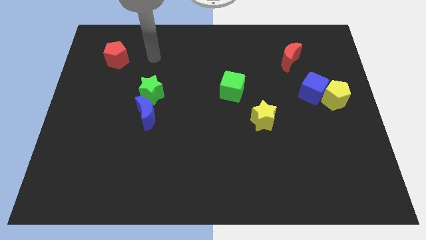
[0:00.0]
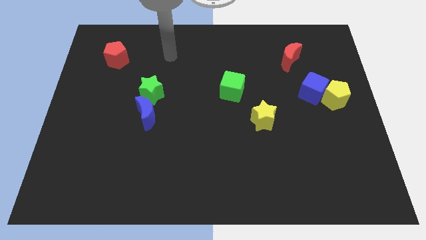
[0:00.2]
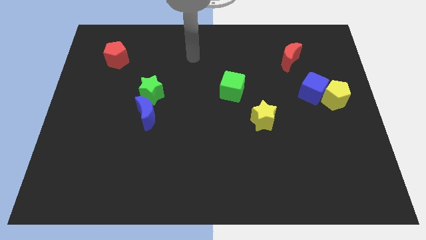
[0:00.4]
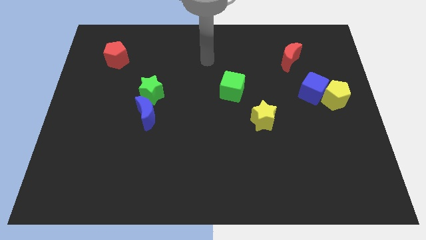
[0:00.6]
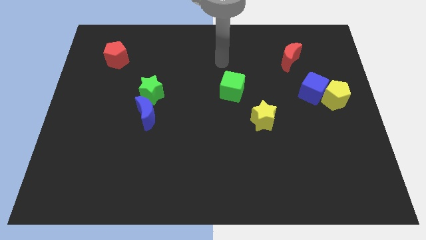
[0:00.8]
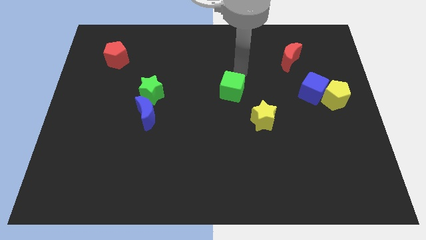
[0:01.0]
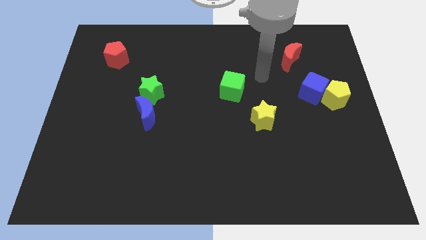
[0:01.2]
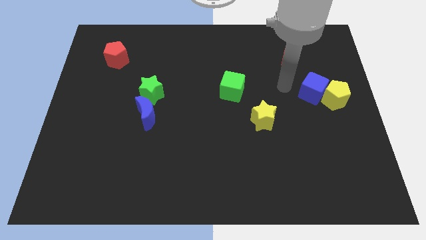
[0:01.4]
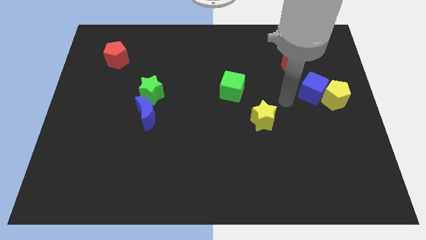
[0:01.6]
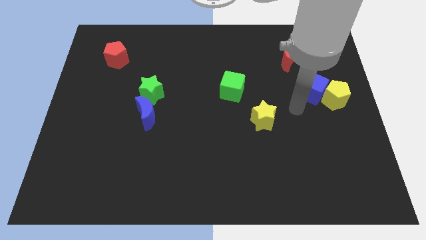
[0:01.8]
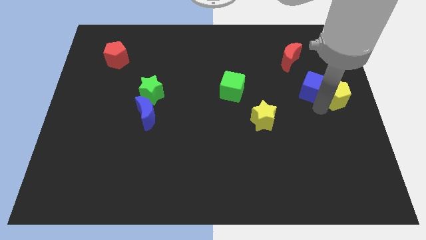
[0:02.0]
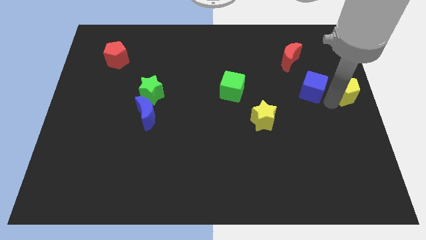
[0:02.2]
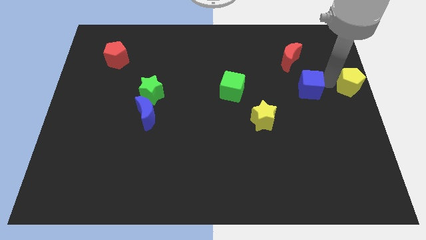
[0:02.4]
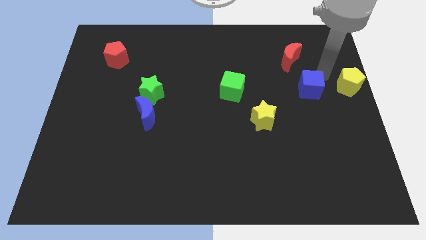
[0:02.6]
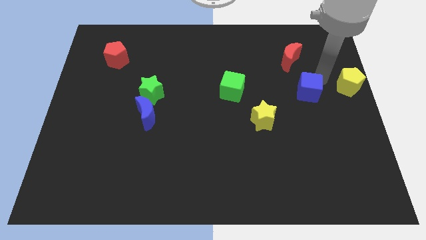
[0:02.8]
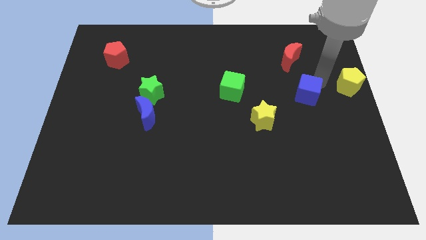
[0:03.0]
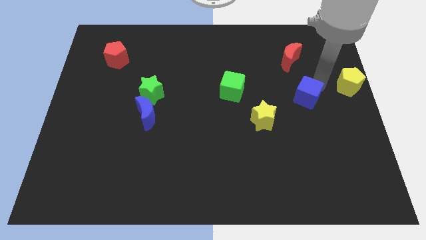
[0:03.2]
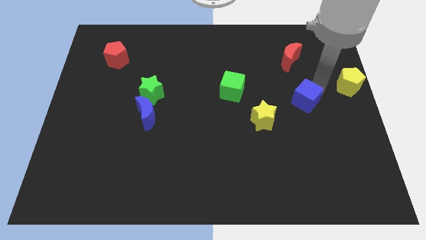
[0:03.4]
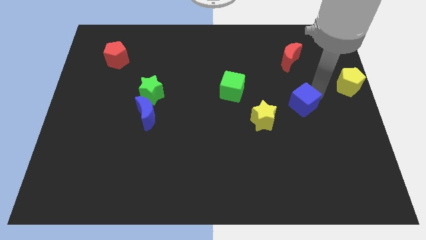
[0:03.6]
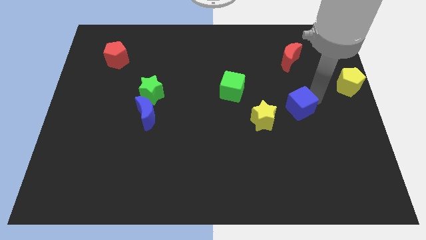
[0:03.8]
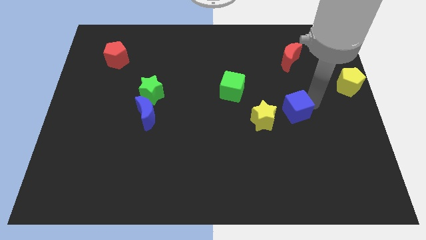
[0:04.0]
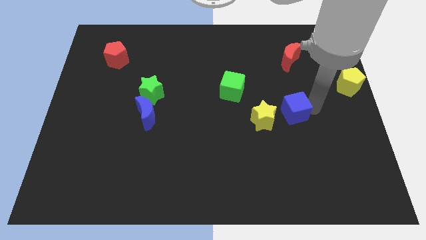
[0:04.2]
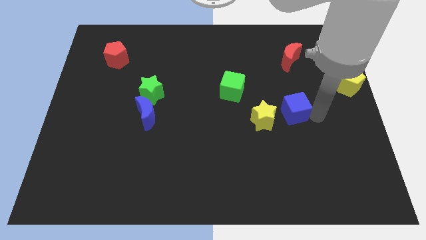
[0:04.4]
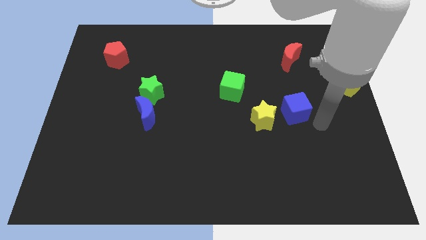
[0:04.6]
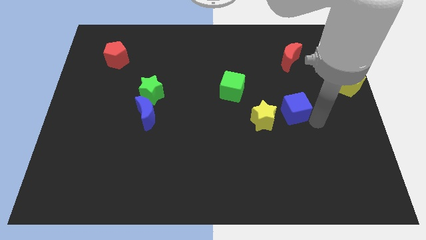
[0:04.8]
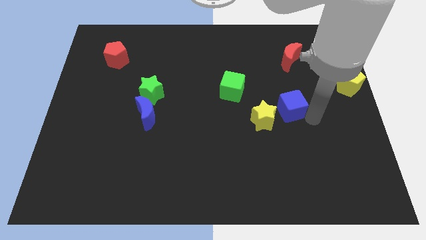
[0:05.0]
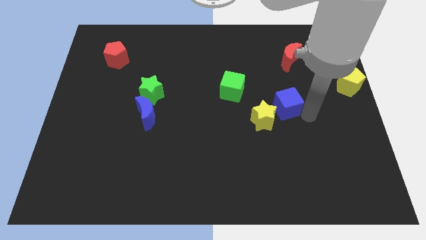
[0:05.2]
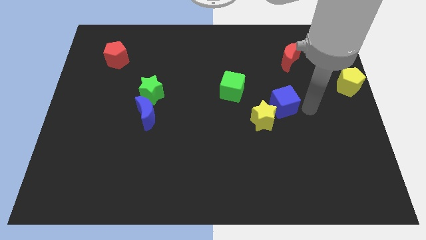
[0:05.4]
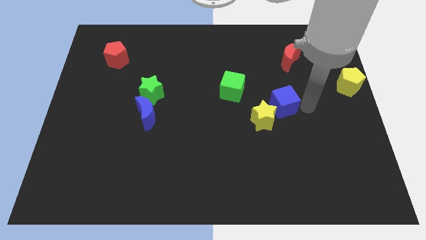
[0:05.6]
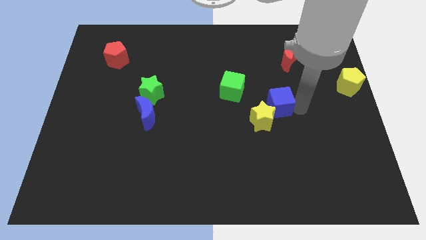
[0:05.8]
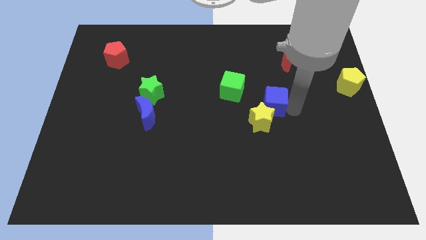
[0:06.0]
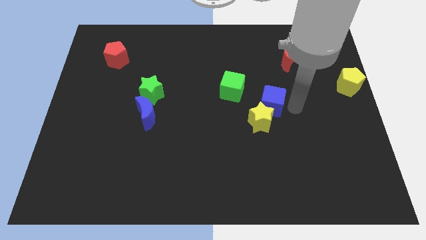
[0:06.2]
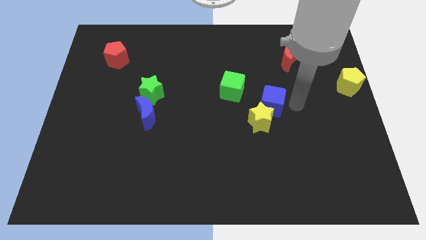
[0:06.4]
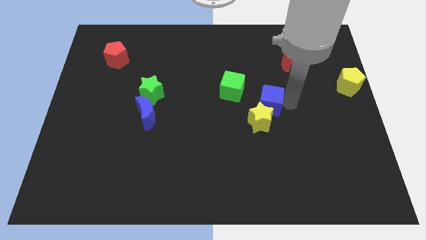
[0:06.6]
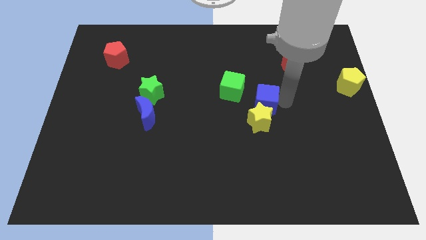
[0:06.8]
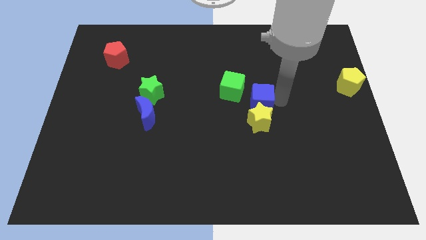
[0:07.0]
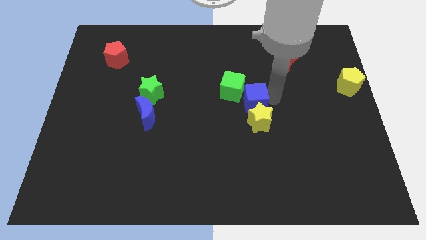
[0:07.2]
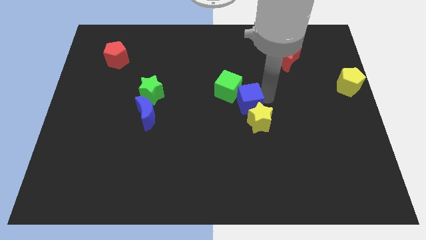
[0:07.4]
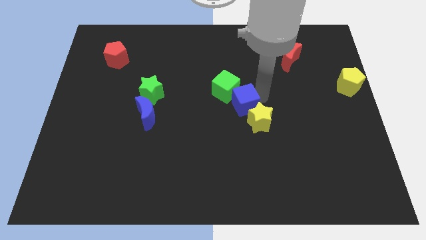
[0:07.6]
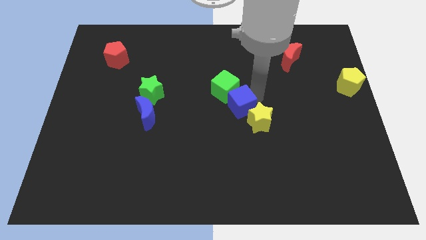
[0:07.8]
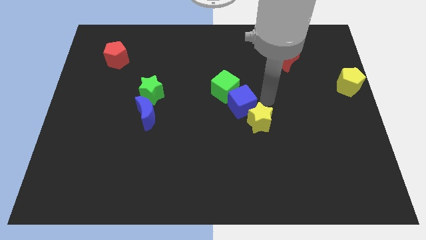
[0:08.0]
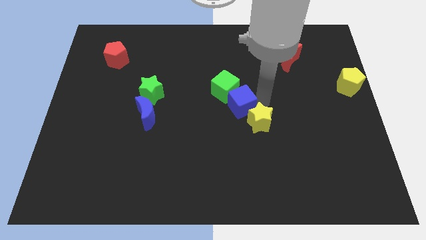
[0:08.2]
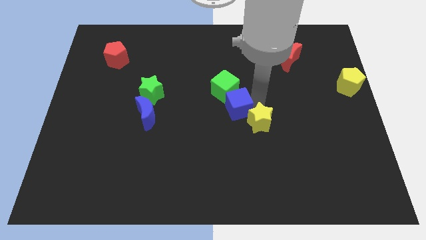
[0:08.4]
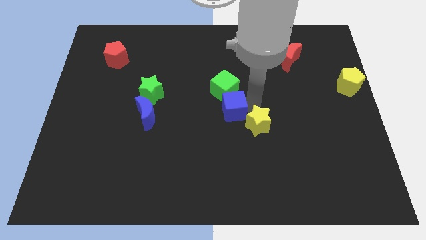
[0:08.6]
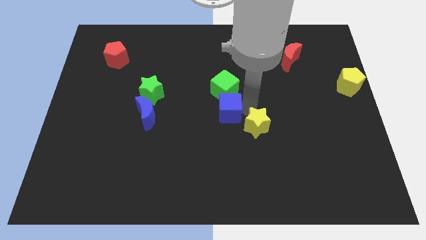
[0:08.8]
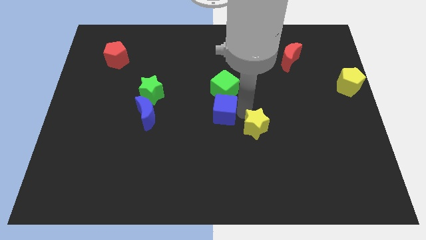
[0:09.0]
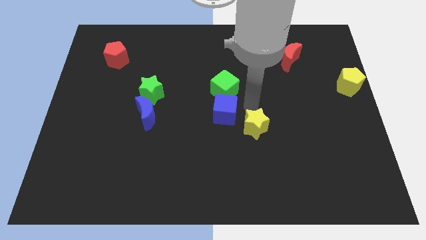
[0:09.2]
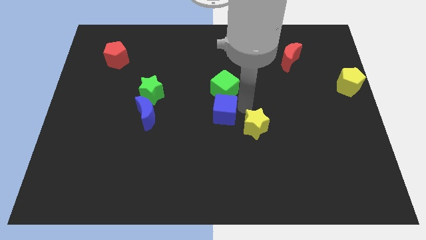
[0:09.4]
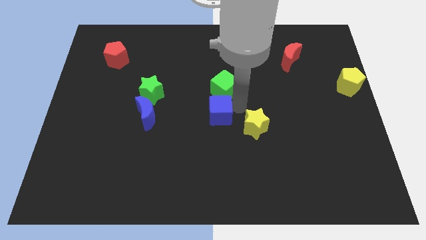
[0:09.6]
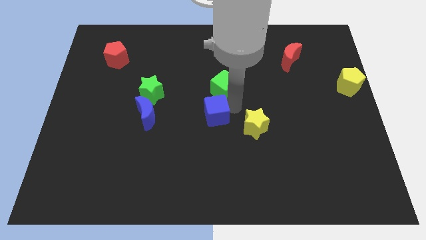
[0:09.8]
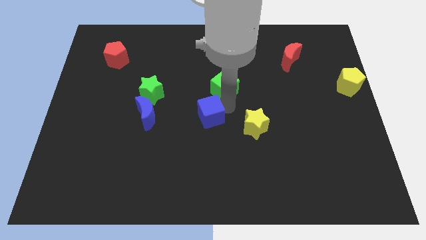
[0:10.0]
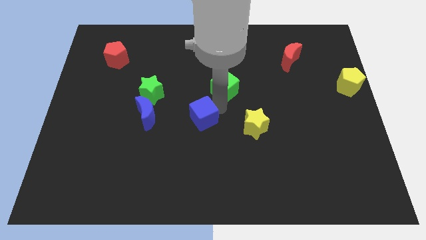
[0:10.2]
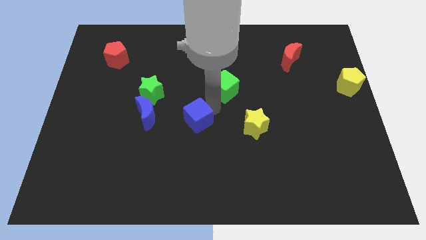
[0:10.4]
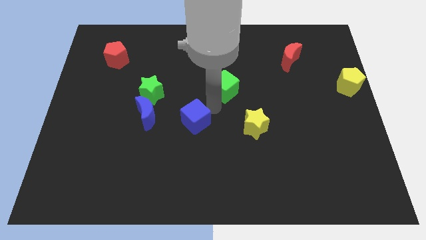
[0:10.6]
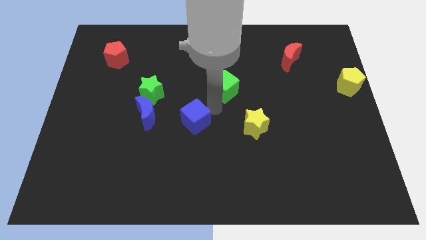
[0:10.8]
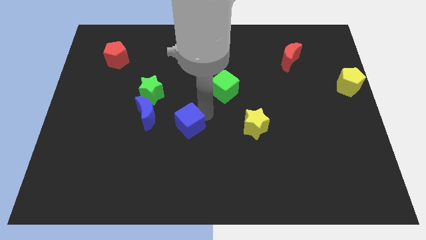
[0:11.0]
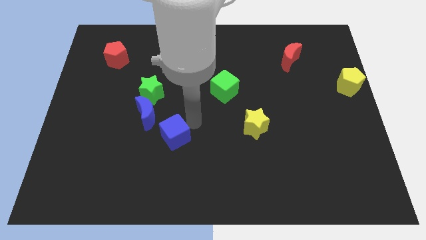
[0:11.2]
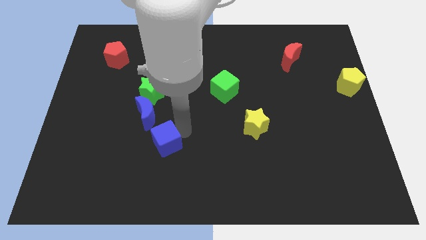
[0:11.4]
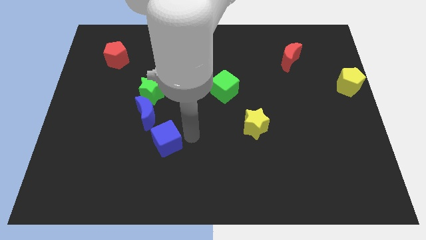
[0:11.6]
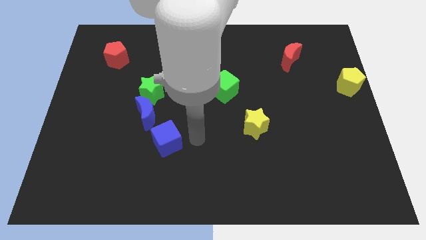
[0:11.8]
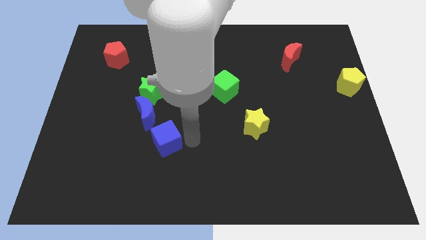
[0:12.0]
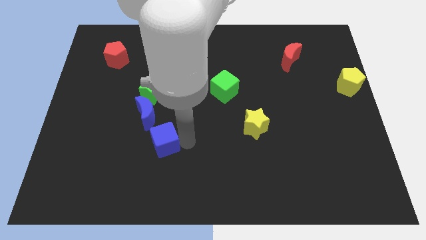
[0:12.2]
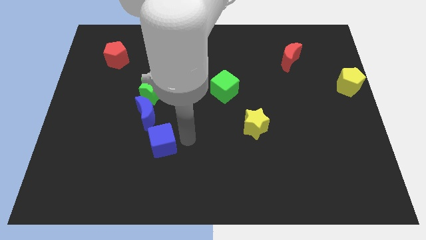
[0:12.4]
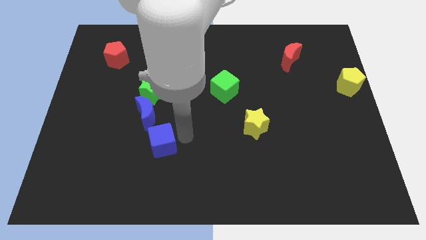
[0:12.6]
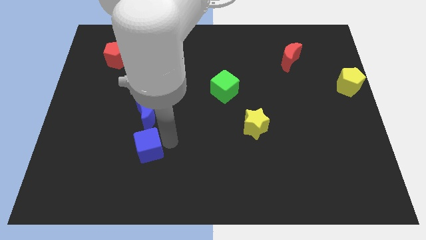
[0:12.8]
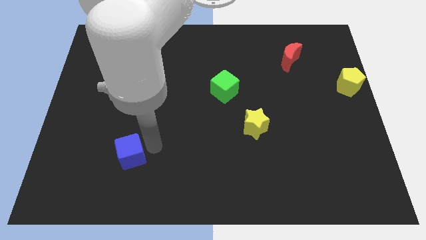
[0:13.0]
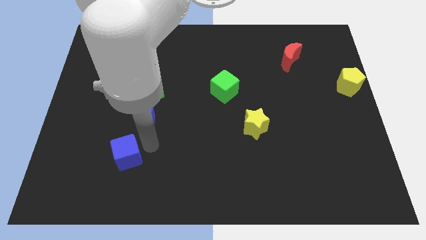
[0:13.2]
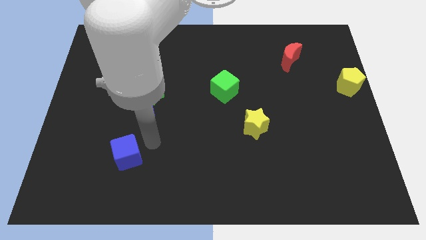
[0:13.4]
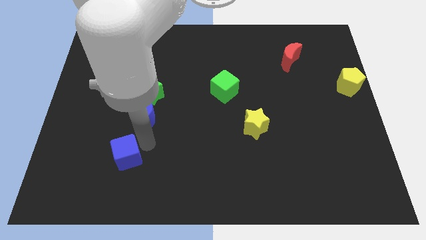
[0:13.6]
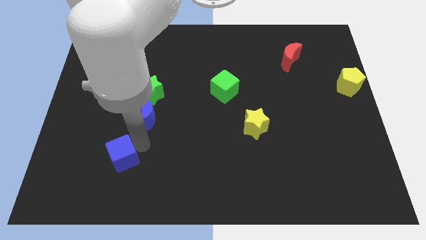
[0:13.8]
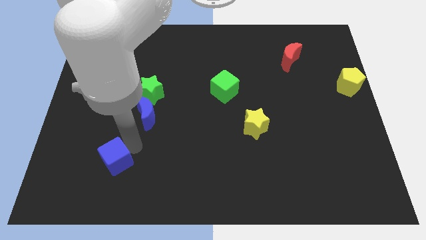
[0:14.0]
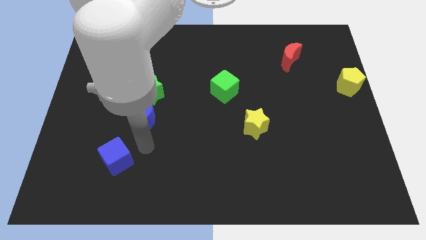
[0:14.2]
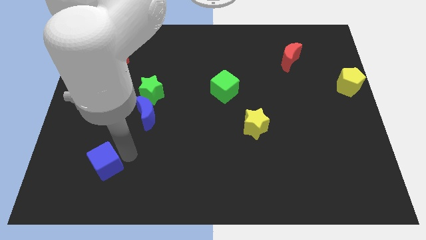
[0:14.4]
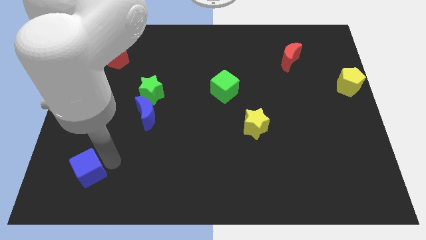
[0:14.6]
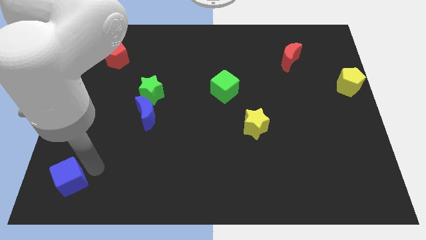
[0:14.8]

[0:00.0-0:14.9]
move the blue cube to the bottom left
